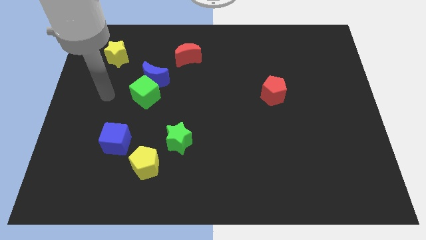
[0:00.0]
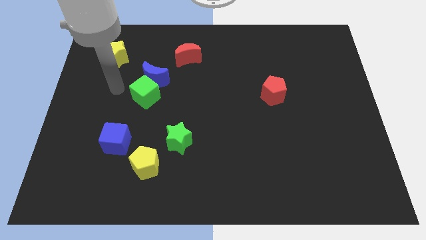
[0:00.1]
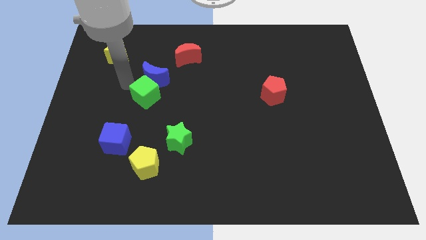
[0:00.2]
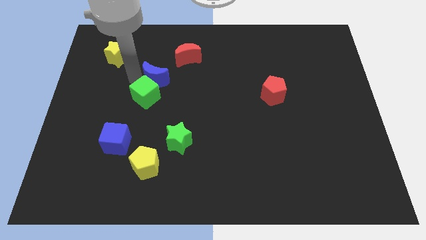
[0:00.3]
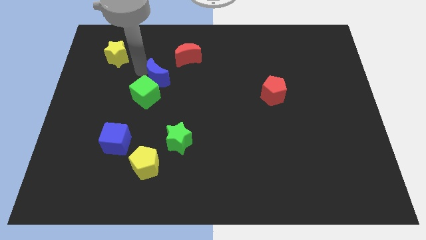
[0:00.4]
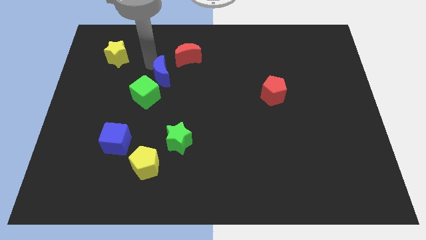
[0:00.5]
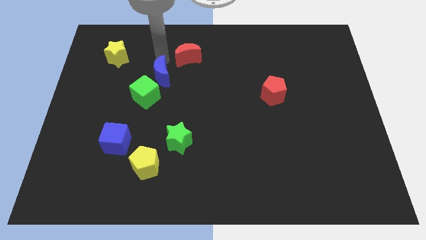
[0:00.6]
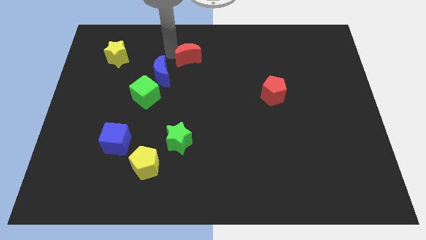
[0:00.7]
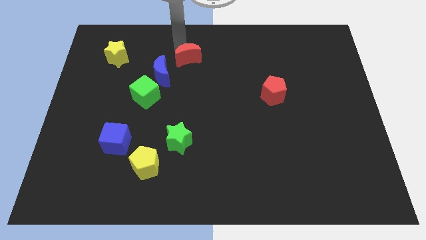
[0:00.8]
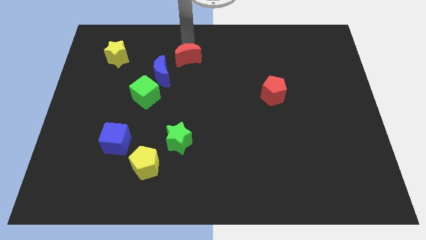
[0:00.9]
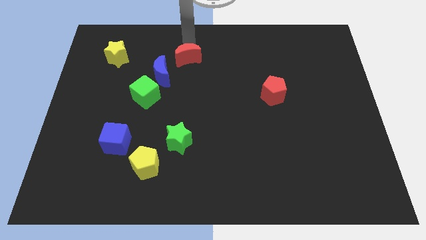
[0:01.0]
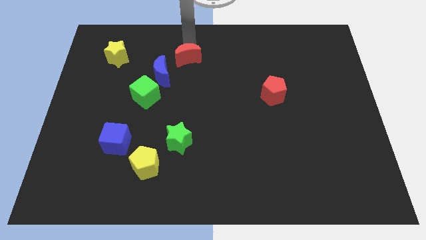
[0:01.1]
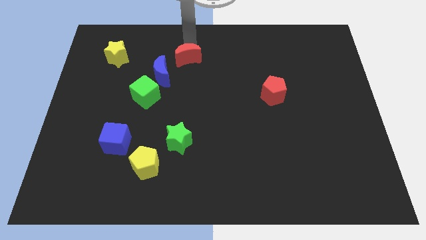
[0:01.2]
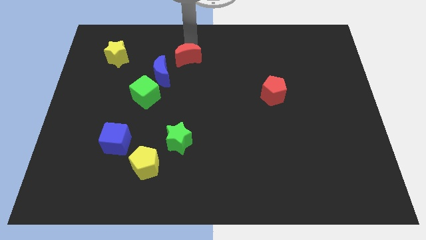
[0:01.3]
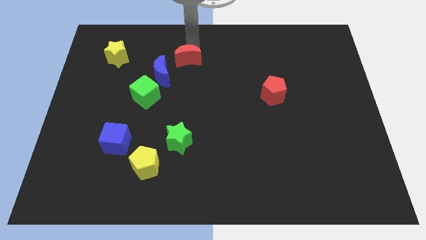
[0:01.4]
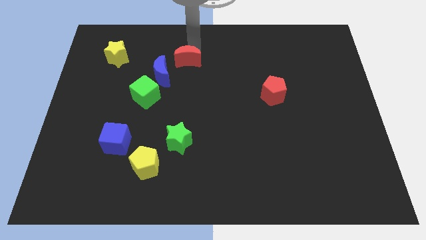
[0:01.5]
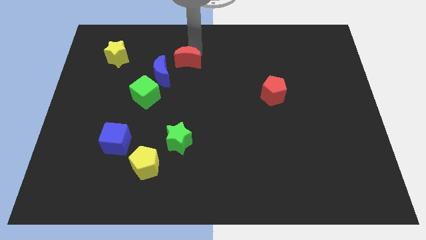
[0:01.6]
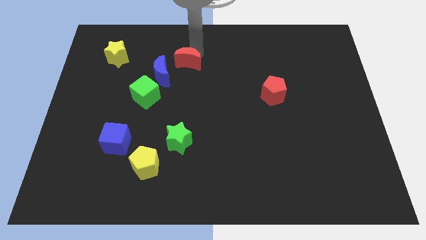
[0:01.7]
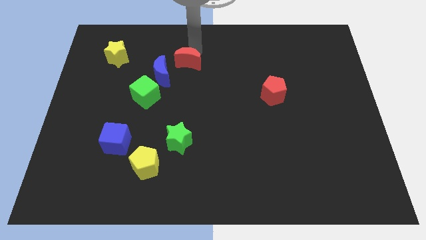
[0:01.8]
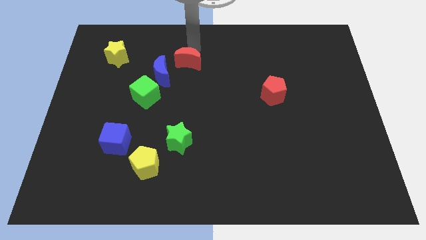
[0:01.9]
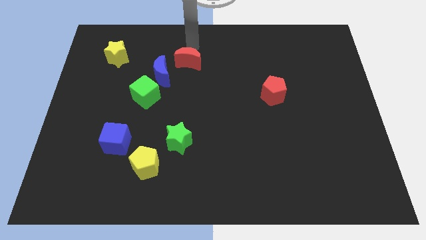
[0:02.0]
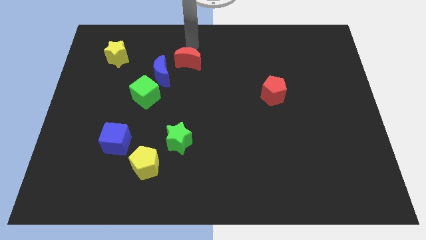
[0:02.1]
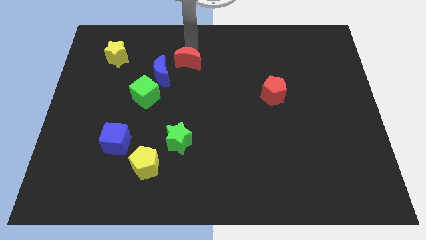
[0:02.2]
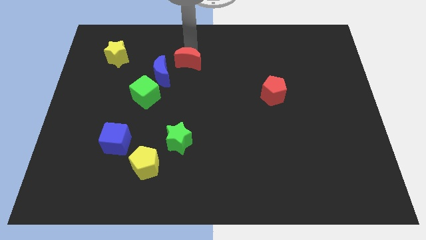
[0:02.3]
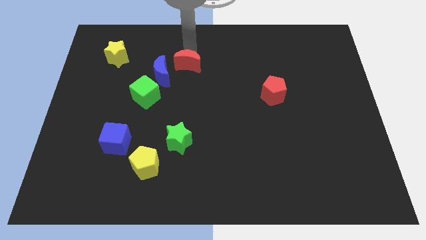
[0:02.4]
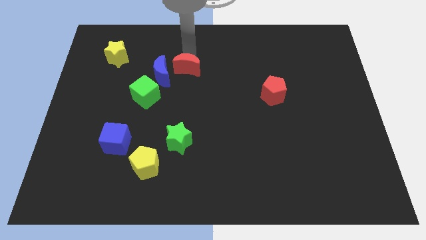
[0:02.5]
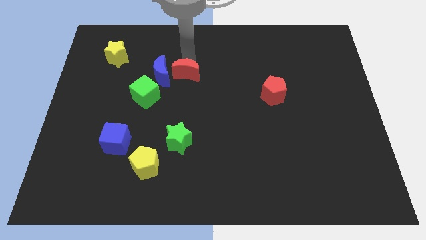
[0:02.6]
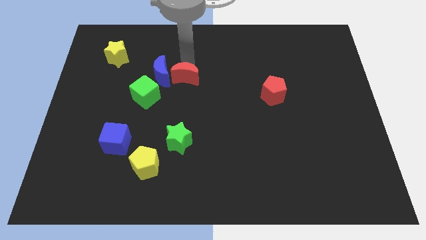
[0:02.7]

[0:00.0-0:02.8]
slide the red moon a little bit down

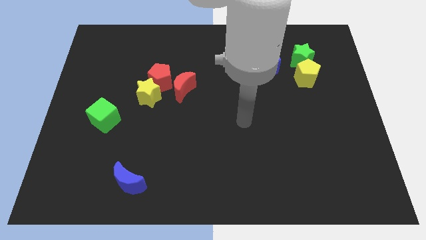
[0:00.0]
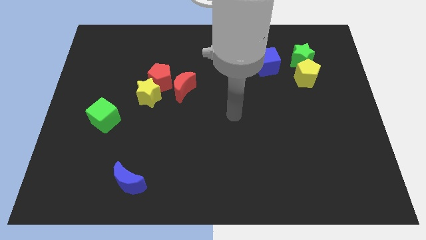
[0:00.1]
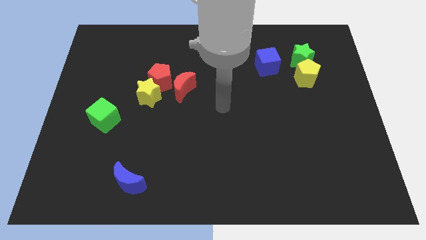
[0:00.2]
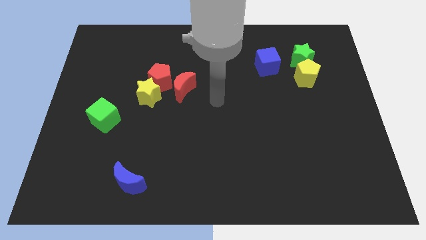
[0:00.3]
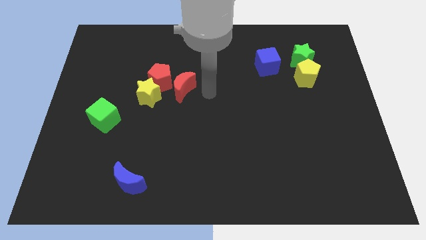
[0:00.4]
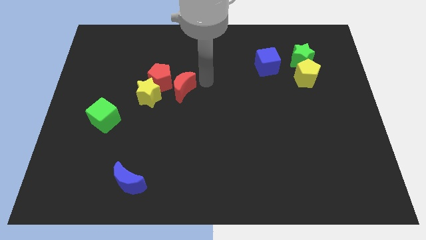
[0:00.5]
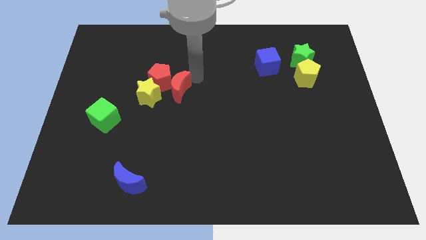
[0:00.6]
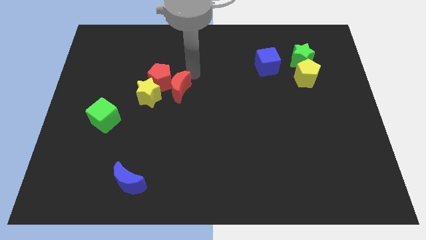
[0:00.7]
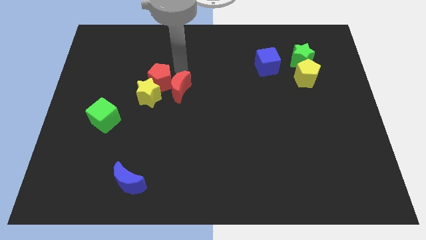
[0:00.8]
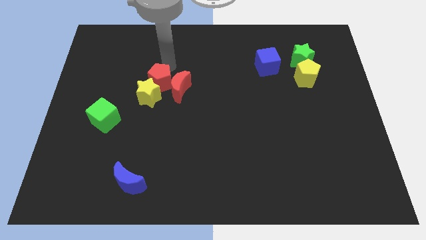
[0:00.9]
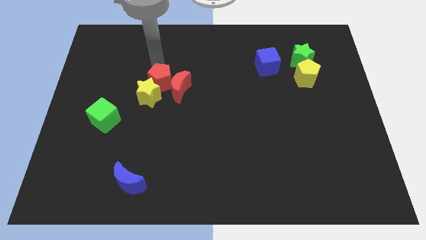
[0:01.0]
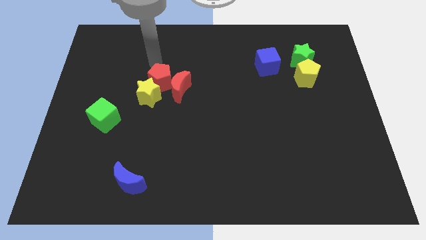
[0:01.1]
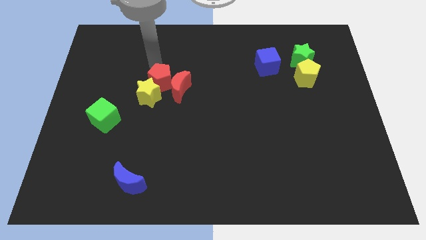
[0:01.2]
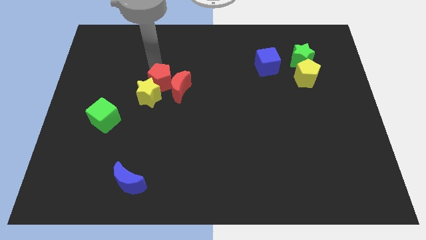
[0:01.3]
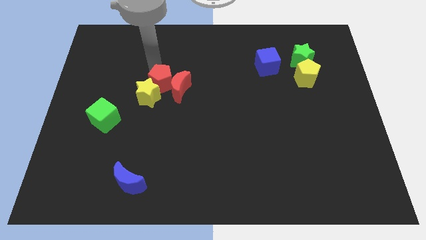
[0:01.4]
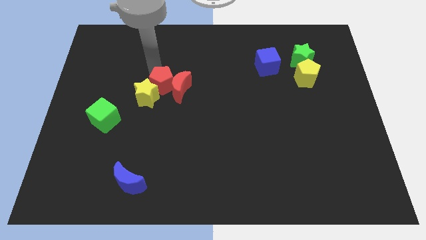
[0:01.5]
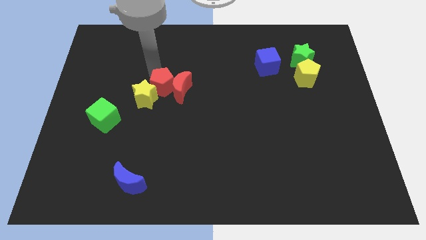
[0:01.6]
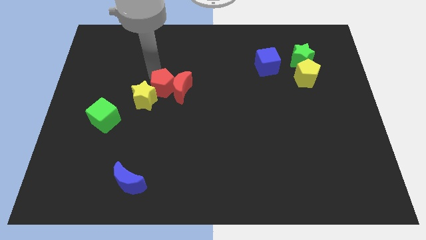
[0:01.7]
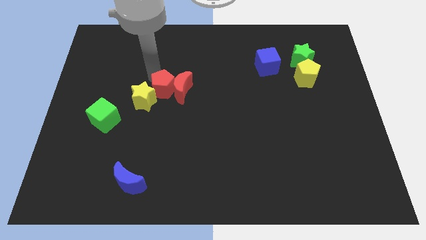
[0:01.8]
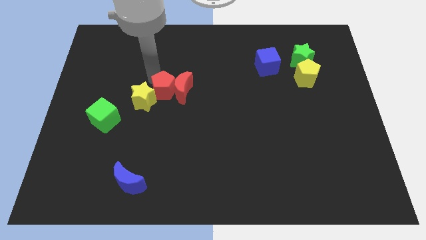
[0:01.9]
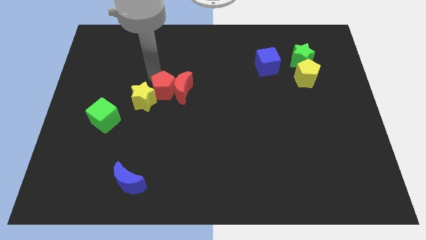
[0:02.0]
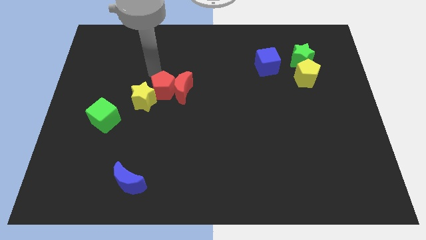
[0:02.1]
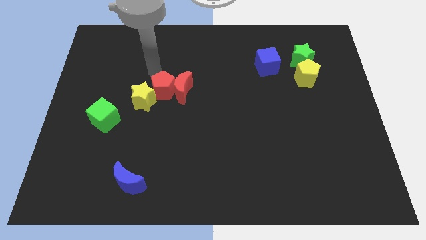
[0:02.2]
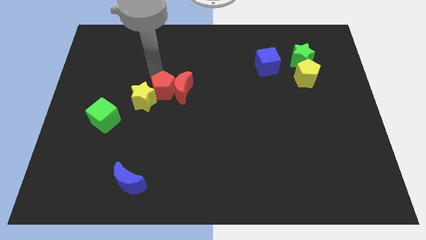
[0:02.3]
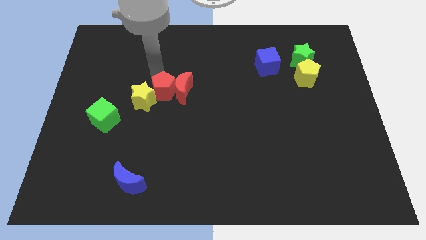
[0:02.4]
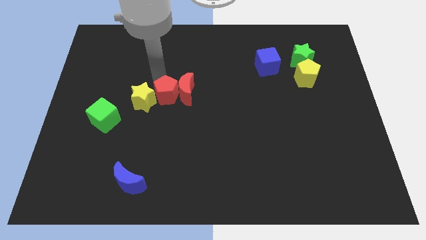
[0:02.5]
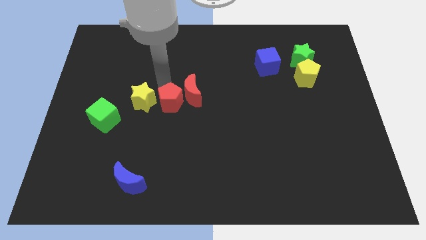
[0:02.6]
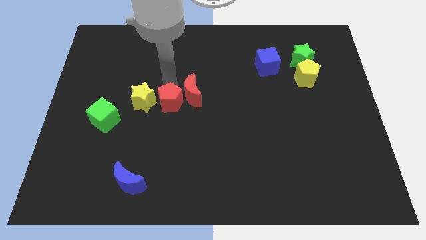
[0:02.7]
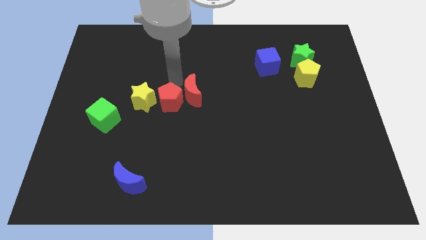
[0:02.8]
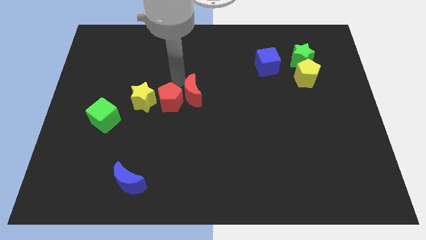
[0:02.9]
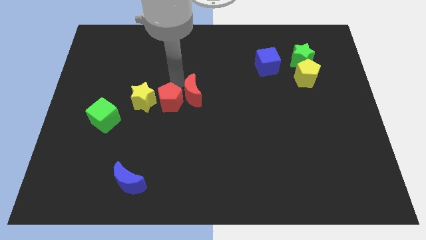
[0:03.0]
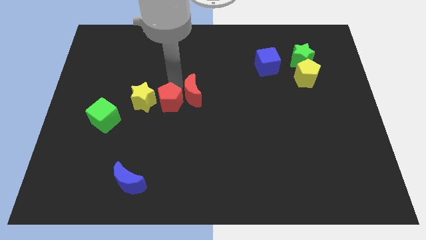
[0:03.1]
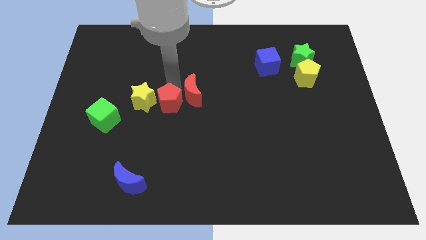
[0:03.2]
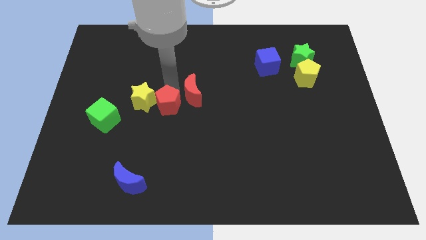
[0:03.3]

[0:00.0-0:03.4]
slide the red pentagon a little down

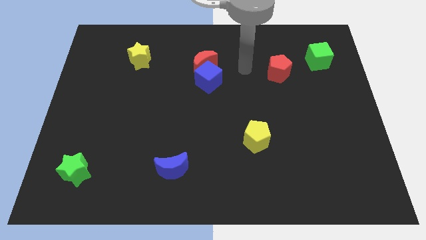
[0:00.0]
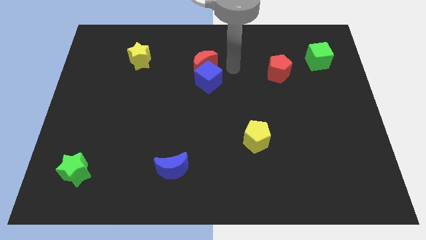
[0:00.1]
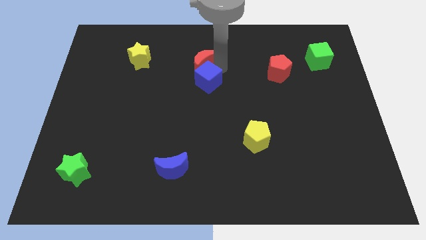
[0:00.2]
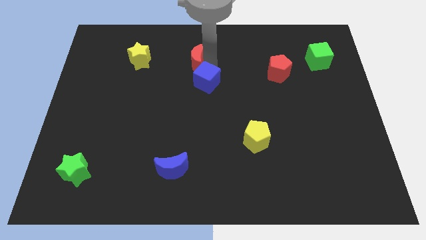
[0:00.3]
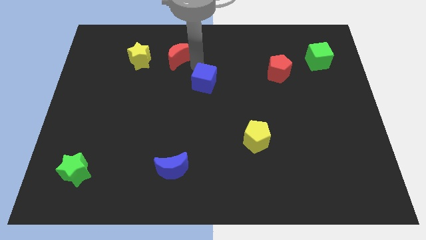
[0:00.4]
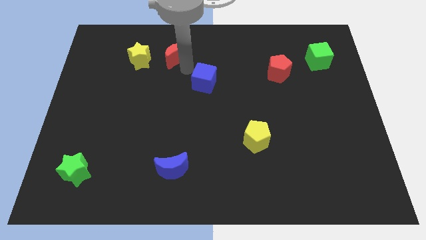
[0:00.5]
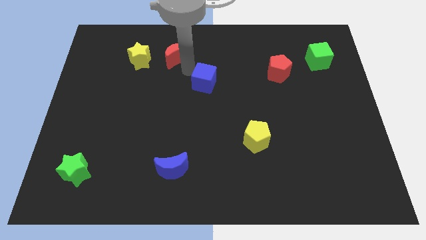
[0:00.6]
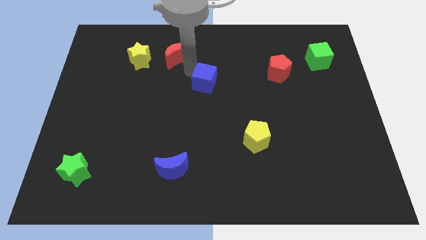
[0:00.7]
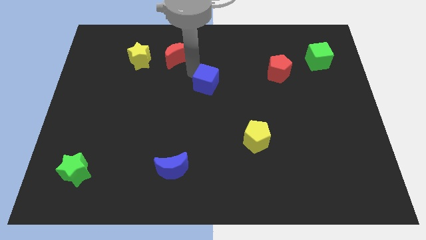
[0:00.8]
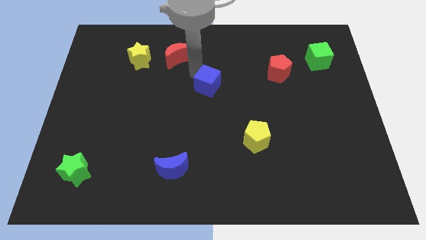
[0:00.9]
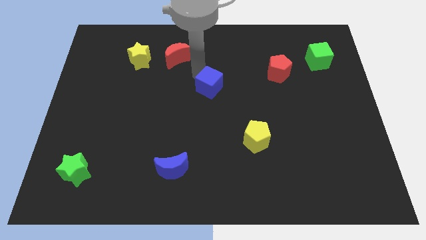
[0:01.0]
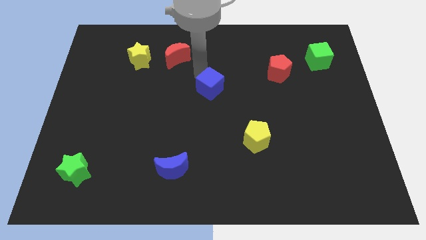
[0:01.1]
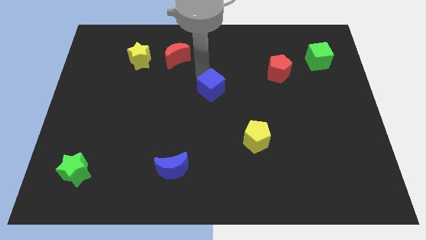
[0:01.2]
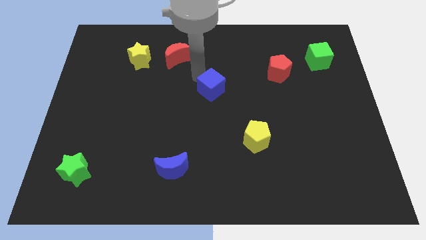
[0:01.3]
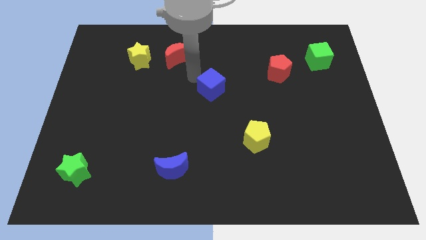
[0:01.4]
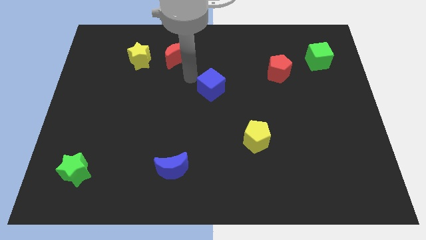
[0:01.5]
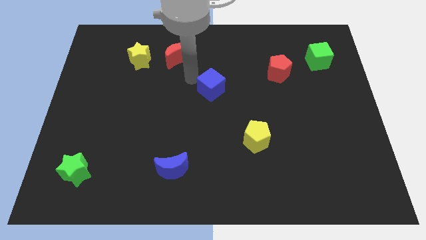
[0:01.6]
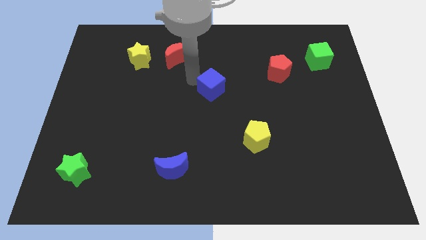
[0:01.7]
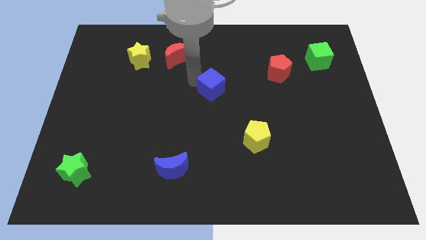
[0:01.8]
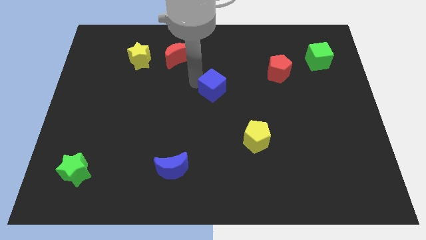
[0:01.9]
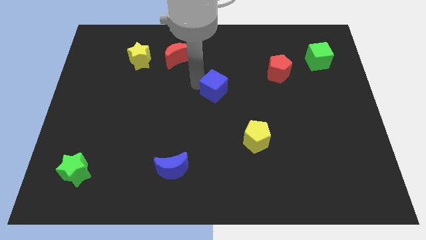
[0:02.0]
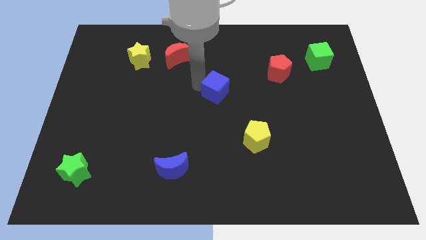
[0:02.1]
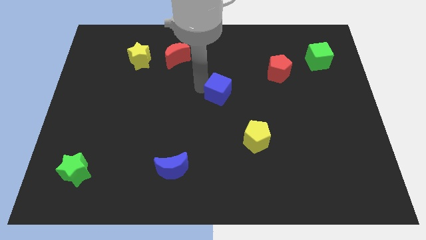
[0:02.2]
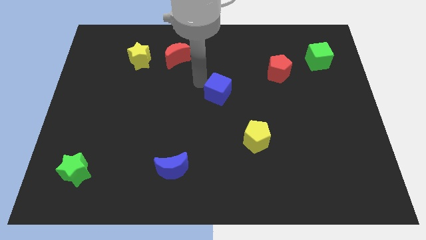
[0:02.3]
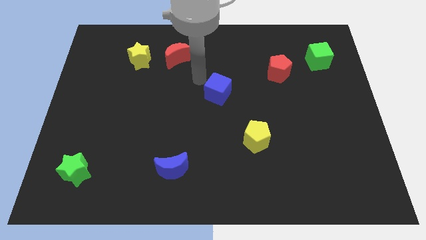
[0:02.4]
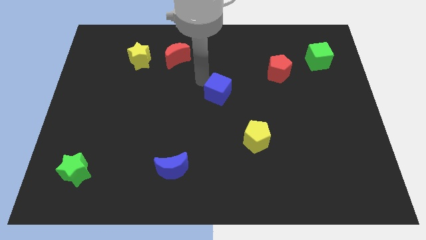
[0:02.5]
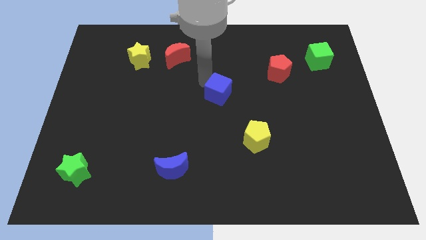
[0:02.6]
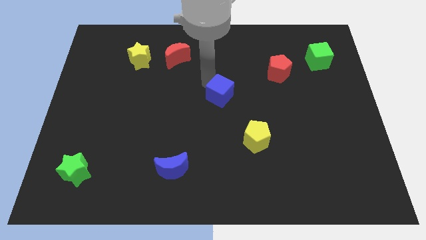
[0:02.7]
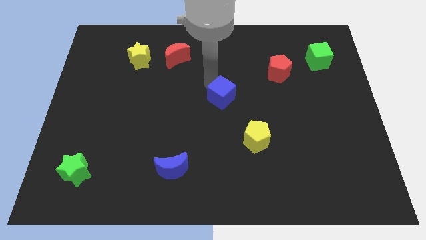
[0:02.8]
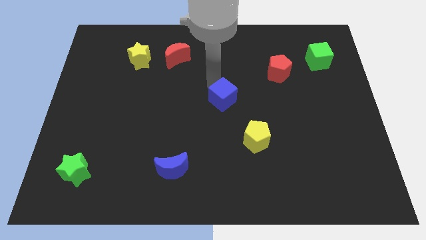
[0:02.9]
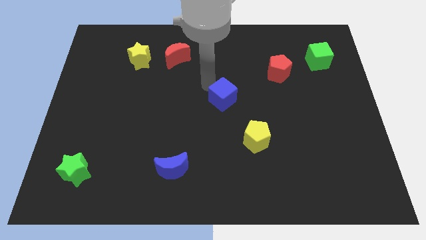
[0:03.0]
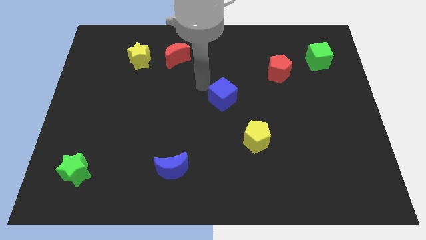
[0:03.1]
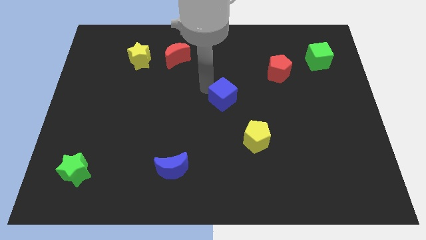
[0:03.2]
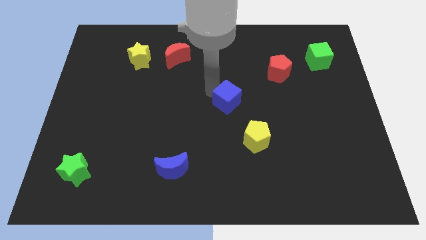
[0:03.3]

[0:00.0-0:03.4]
move the blue cube a bit down and right
